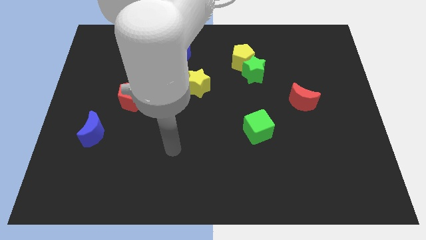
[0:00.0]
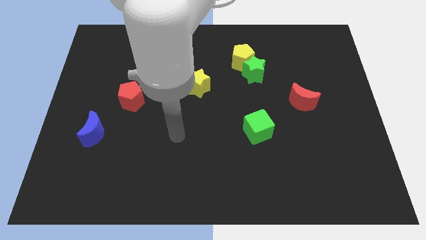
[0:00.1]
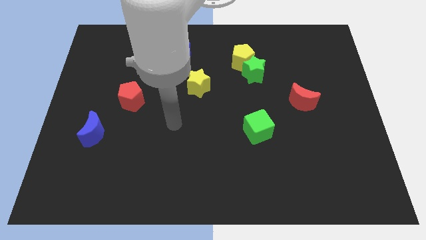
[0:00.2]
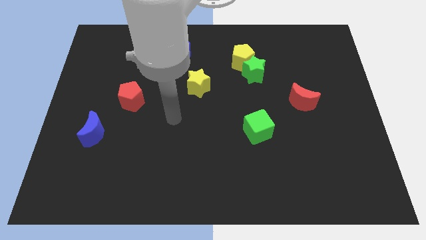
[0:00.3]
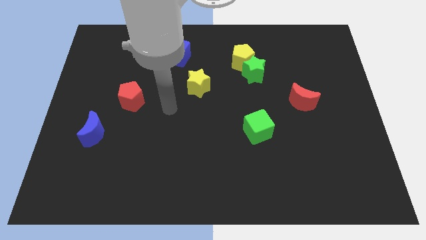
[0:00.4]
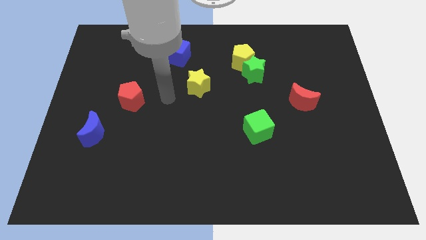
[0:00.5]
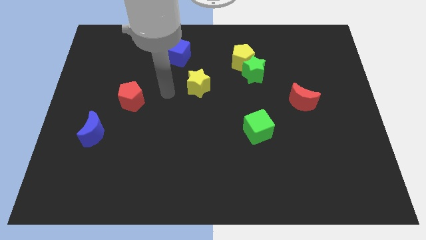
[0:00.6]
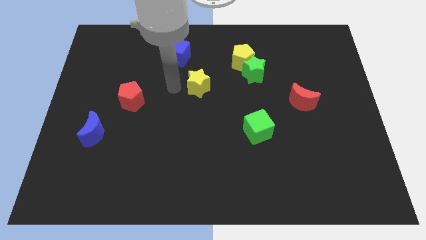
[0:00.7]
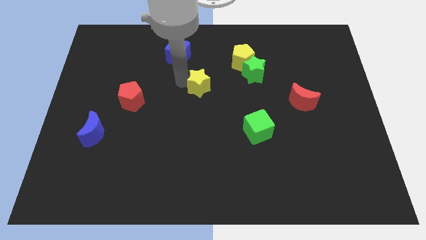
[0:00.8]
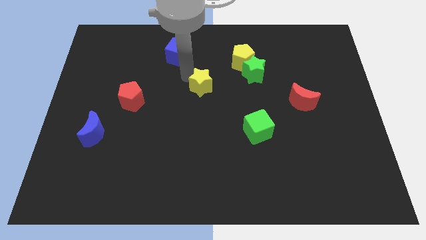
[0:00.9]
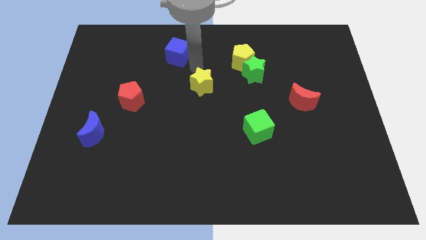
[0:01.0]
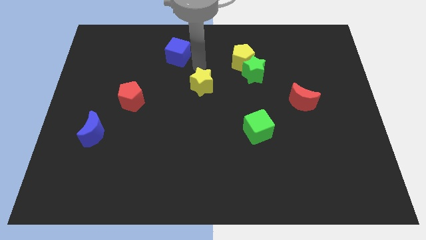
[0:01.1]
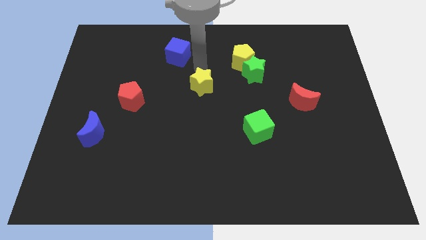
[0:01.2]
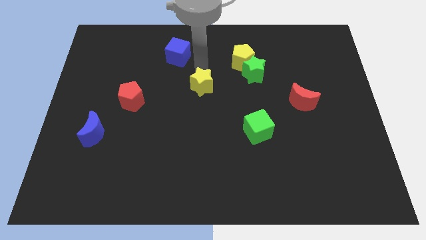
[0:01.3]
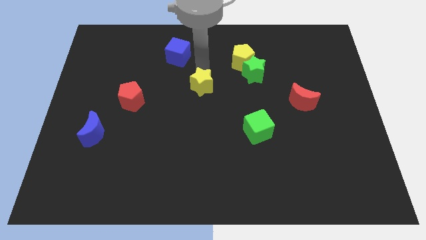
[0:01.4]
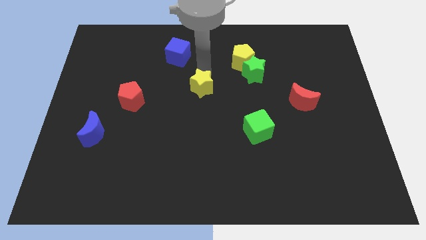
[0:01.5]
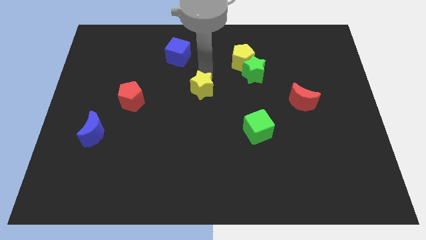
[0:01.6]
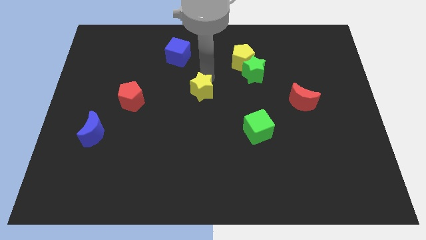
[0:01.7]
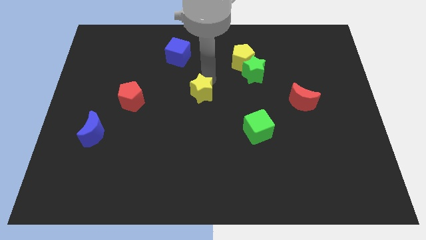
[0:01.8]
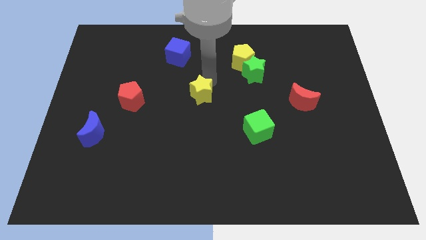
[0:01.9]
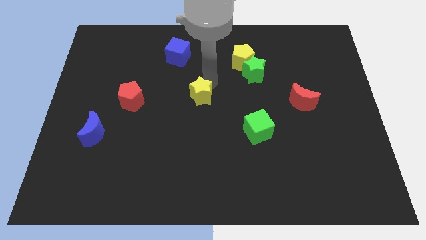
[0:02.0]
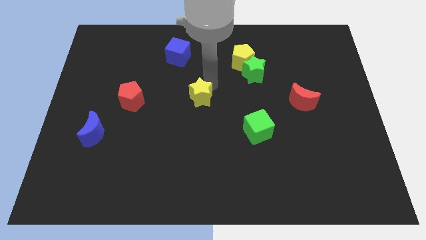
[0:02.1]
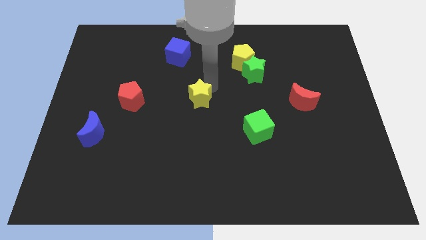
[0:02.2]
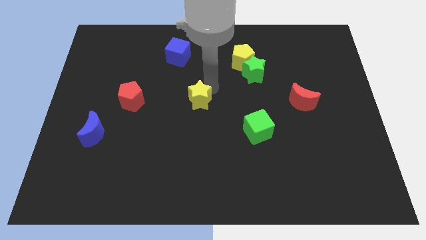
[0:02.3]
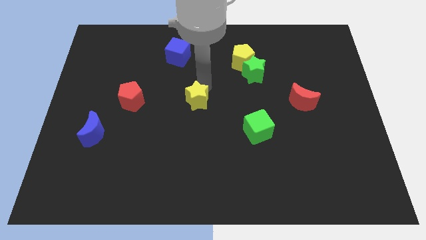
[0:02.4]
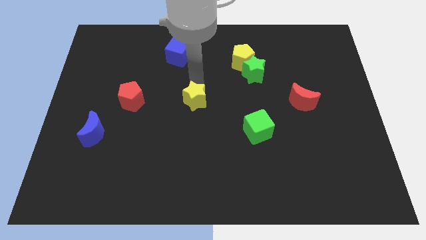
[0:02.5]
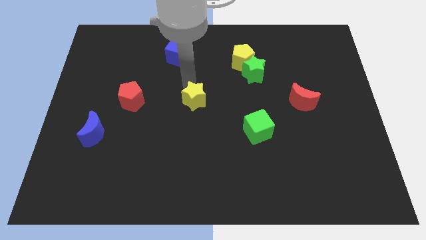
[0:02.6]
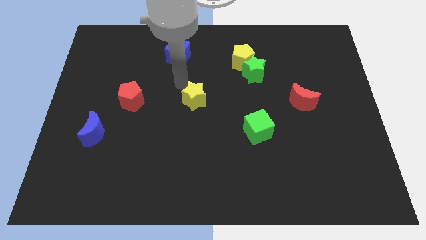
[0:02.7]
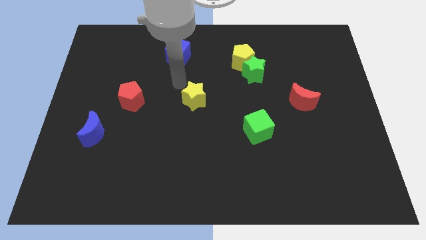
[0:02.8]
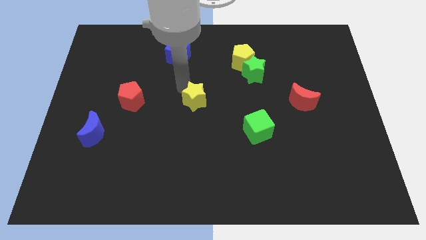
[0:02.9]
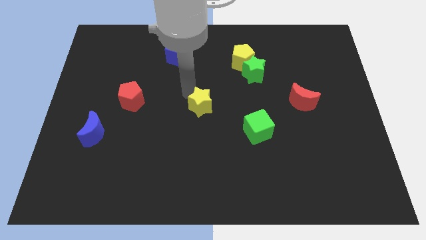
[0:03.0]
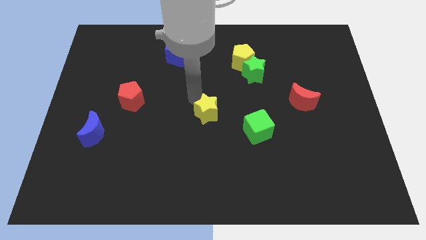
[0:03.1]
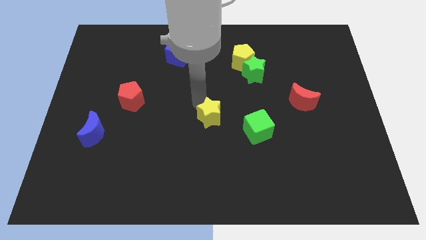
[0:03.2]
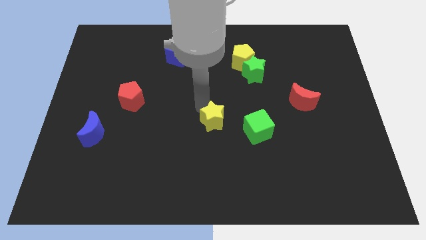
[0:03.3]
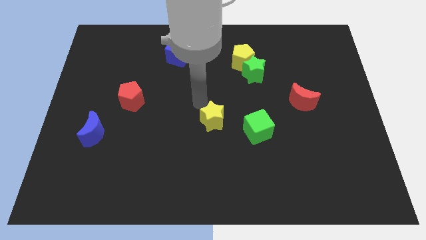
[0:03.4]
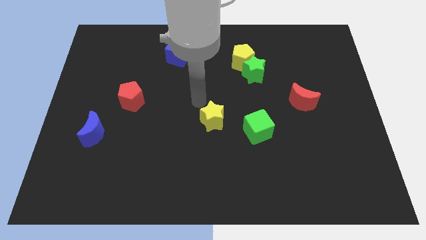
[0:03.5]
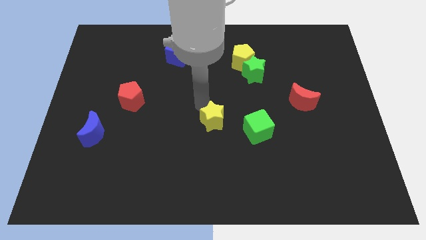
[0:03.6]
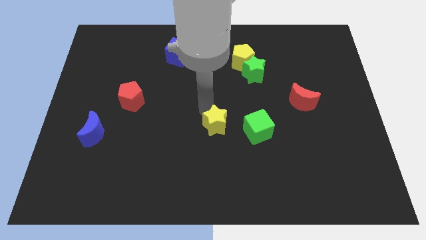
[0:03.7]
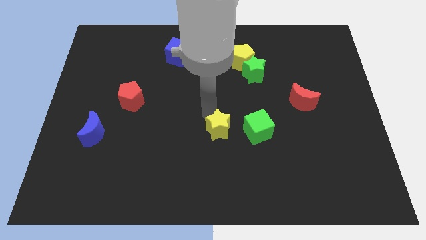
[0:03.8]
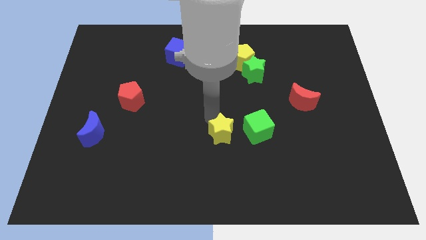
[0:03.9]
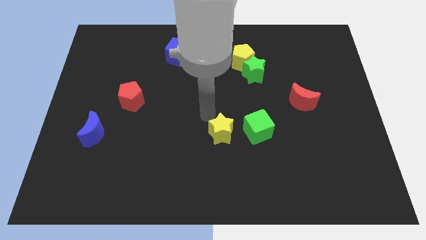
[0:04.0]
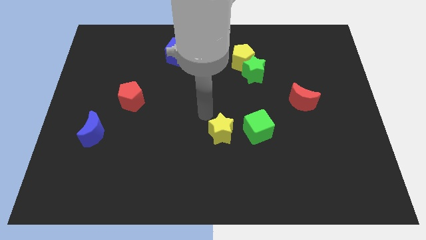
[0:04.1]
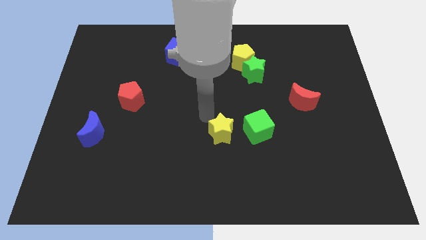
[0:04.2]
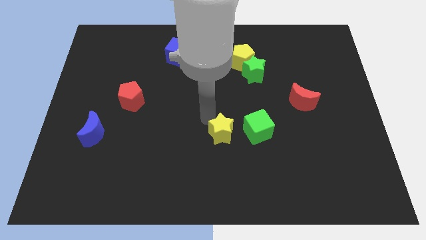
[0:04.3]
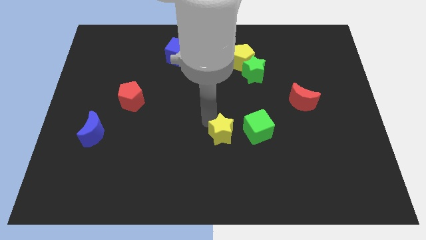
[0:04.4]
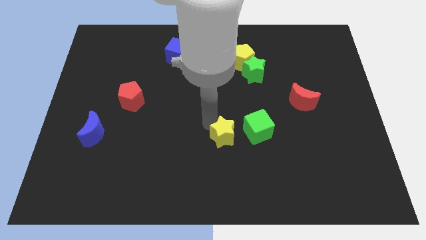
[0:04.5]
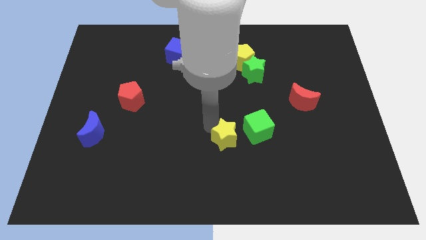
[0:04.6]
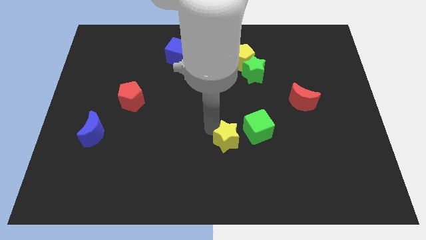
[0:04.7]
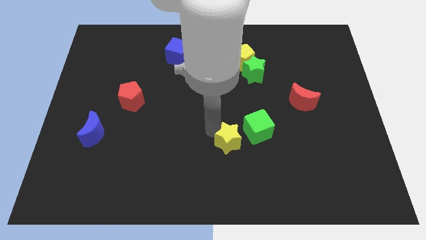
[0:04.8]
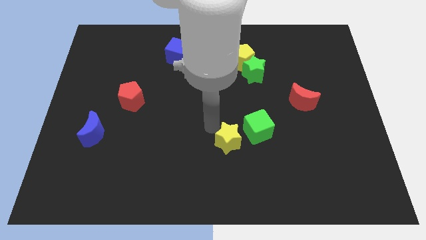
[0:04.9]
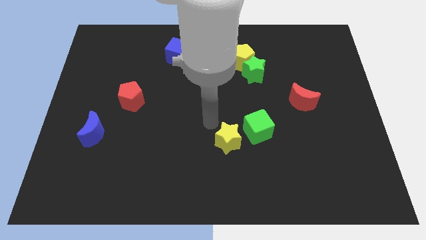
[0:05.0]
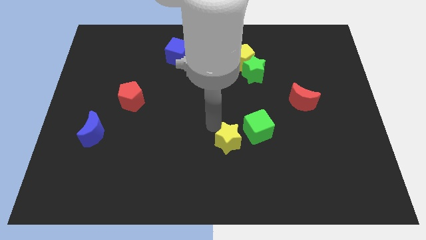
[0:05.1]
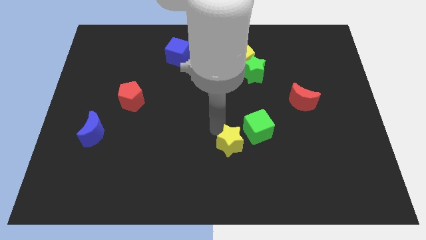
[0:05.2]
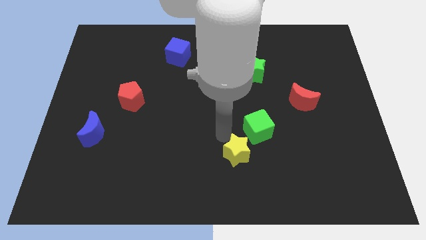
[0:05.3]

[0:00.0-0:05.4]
put the yellow star to the bottom of the green cube

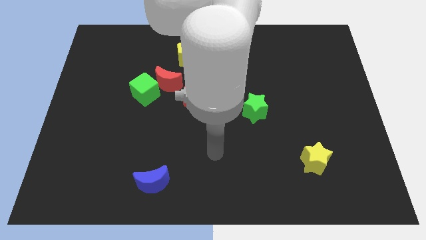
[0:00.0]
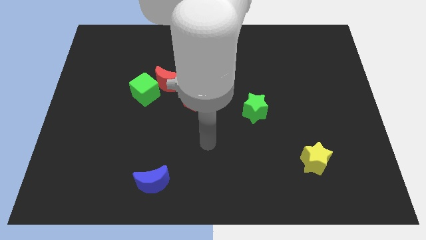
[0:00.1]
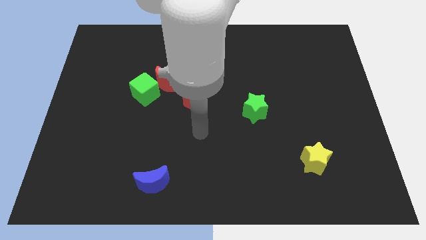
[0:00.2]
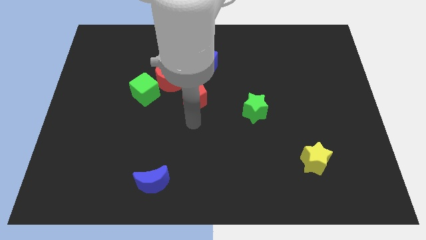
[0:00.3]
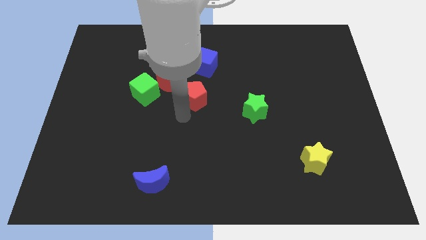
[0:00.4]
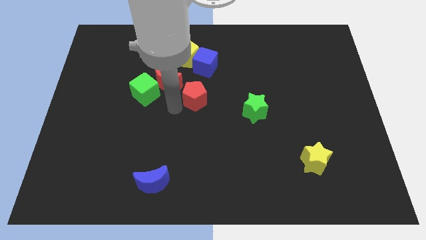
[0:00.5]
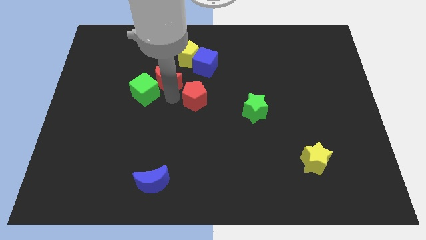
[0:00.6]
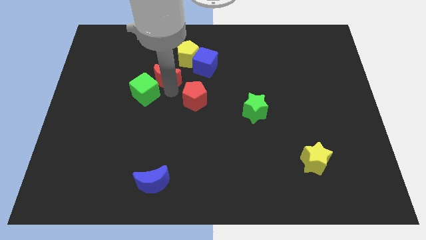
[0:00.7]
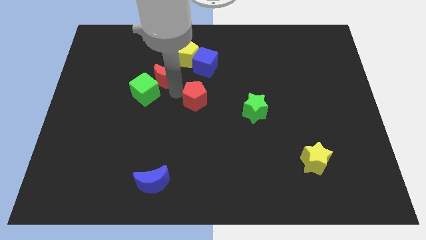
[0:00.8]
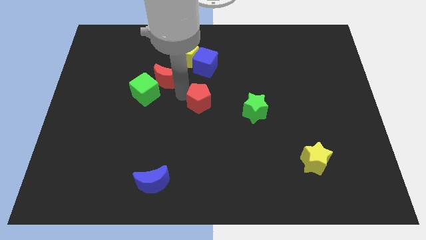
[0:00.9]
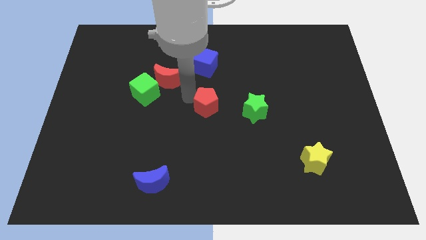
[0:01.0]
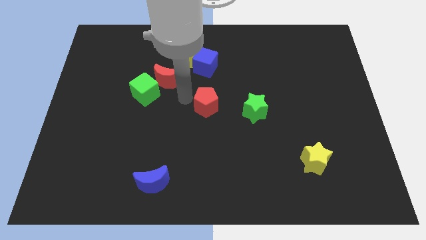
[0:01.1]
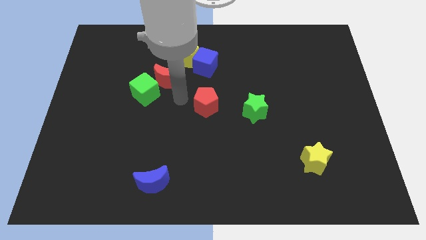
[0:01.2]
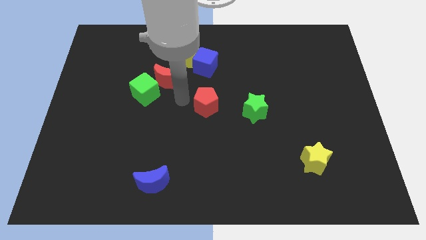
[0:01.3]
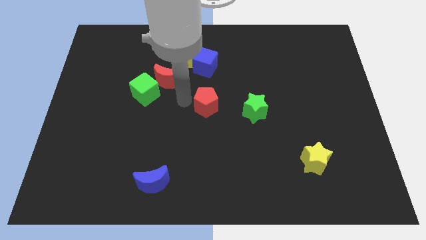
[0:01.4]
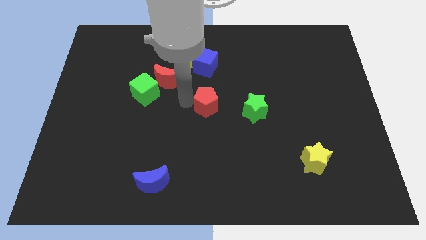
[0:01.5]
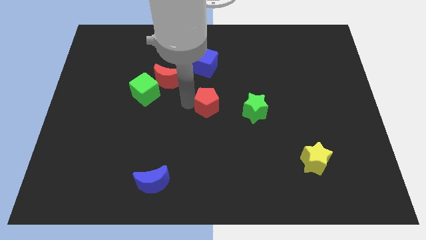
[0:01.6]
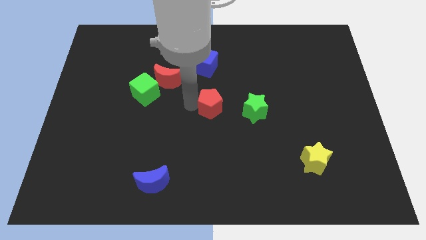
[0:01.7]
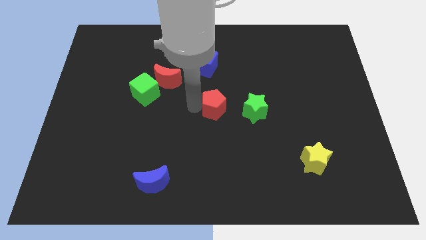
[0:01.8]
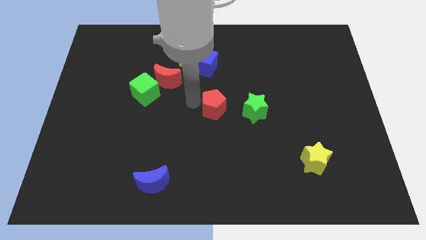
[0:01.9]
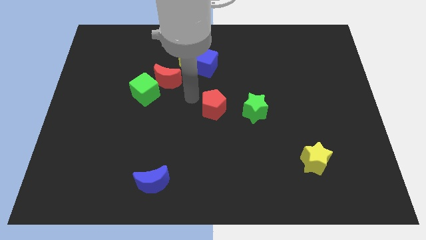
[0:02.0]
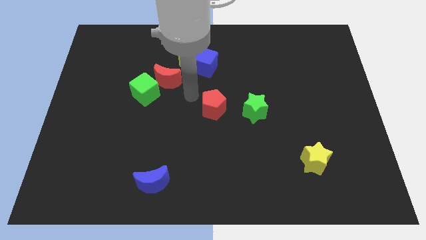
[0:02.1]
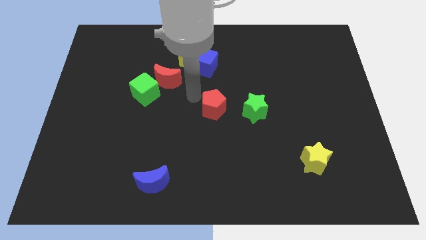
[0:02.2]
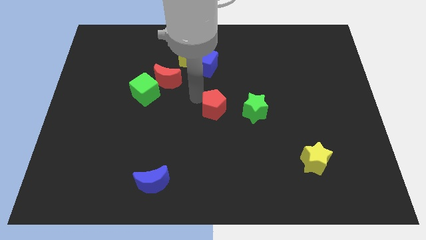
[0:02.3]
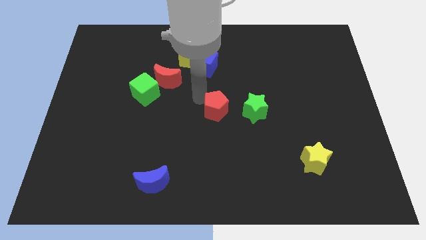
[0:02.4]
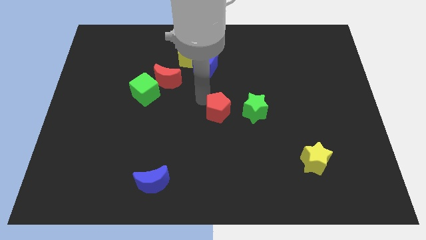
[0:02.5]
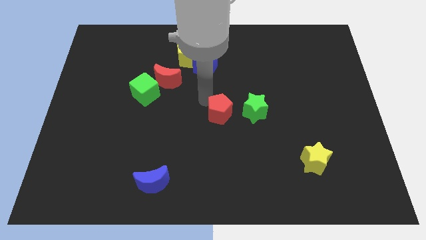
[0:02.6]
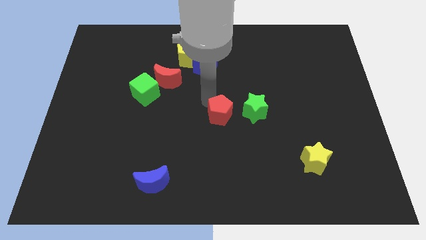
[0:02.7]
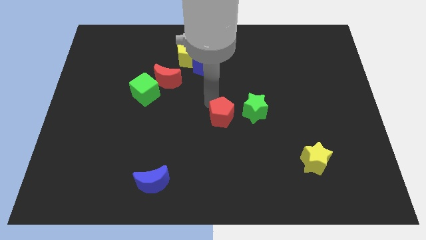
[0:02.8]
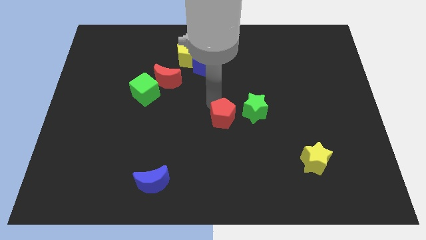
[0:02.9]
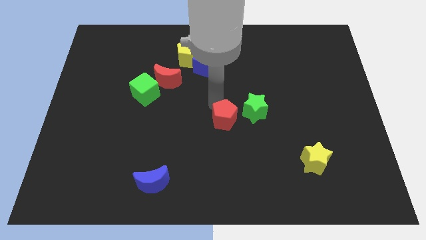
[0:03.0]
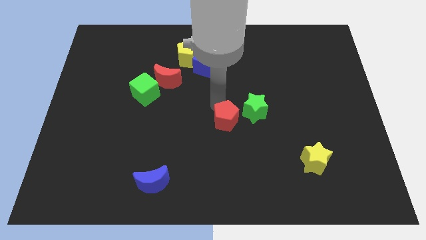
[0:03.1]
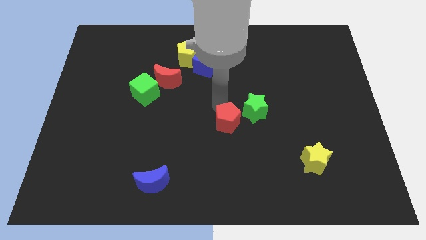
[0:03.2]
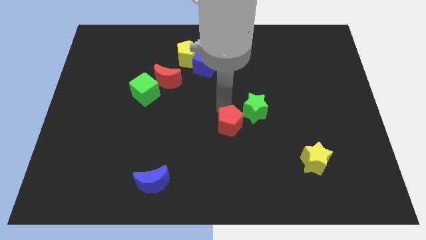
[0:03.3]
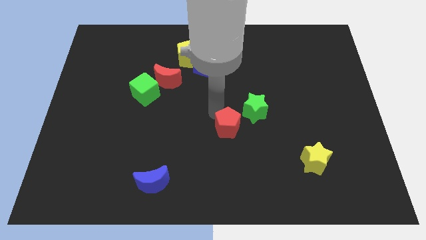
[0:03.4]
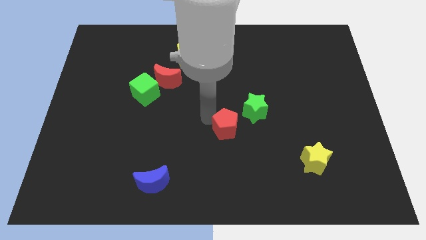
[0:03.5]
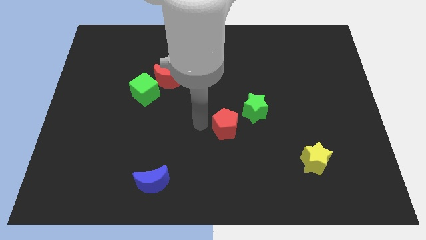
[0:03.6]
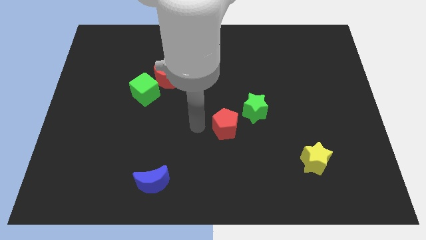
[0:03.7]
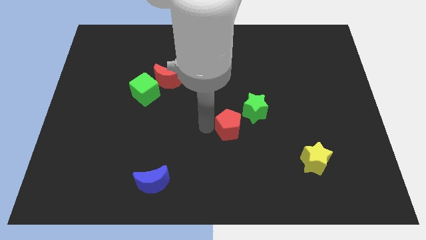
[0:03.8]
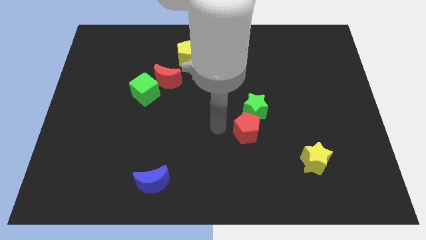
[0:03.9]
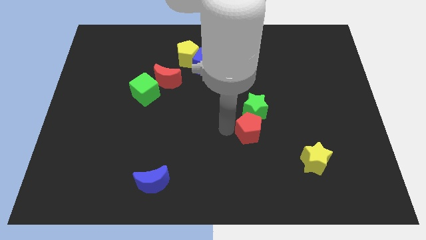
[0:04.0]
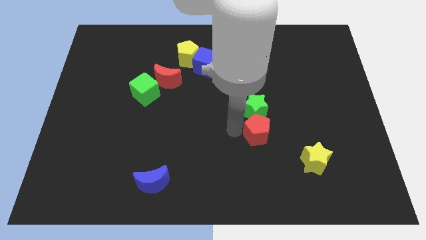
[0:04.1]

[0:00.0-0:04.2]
move the red pentagon to the bottom right side of the green star
